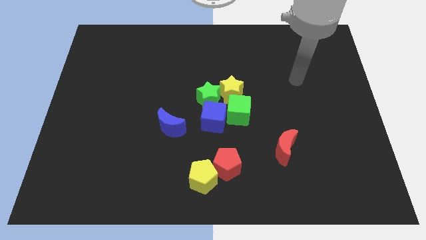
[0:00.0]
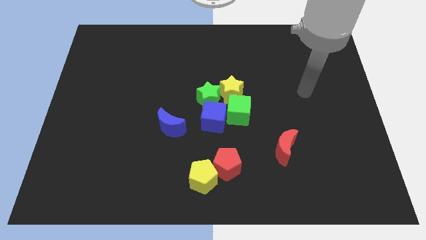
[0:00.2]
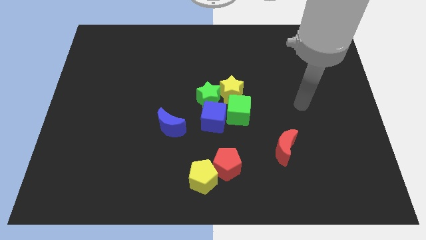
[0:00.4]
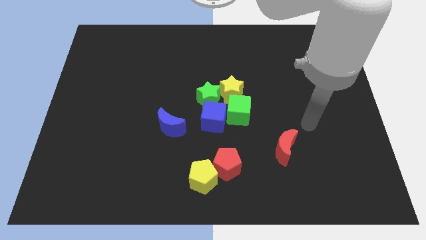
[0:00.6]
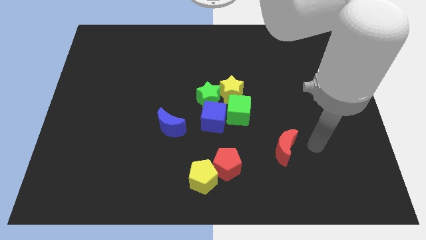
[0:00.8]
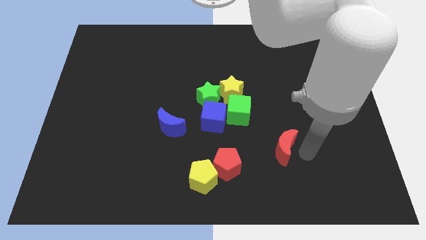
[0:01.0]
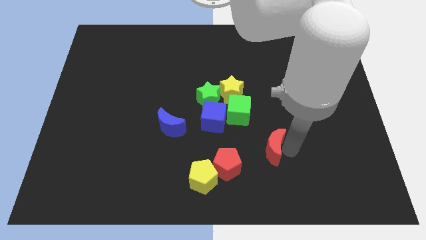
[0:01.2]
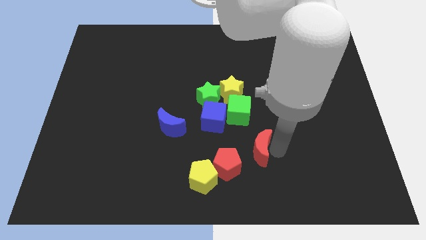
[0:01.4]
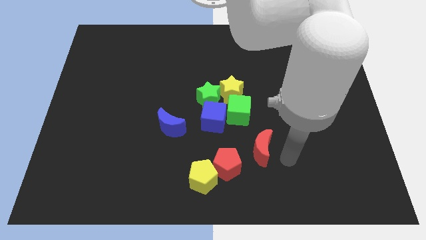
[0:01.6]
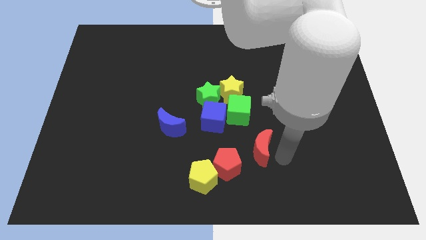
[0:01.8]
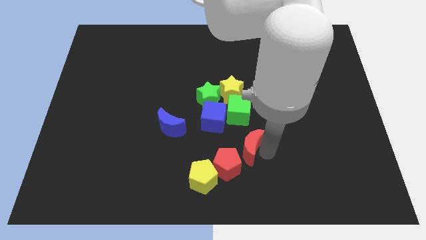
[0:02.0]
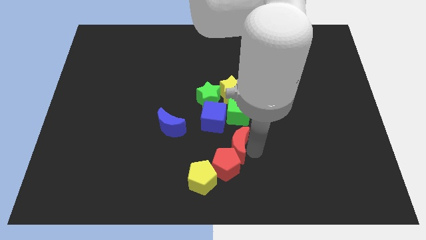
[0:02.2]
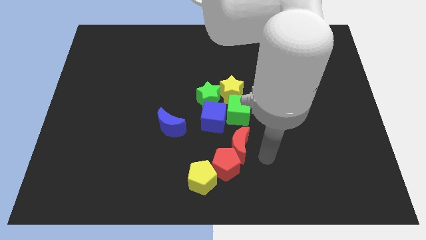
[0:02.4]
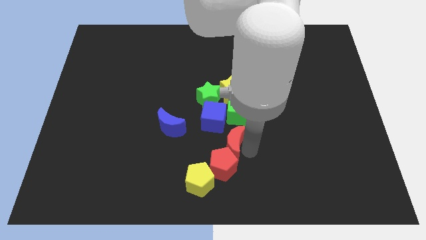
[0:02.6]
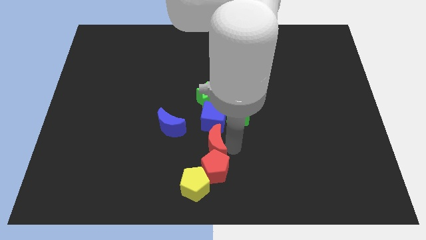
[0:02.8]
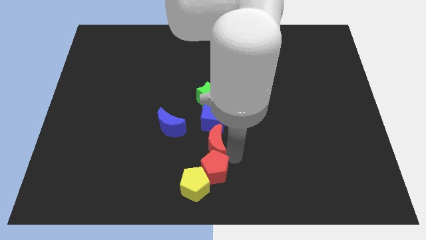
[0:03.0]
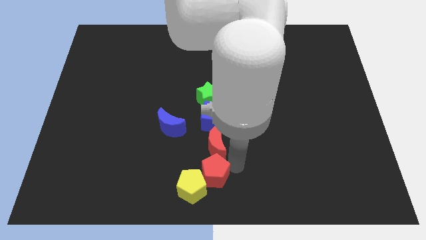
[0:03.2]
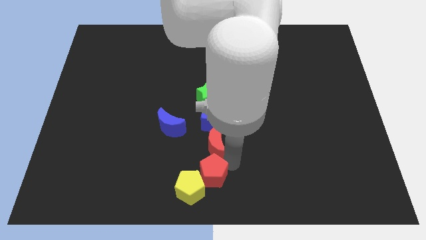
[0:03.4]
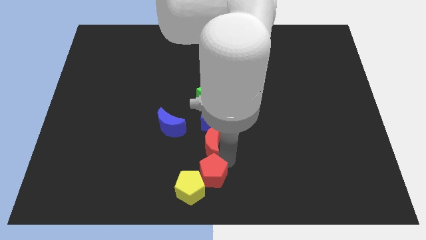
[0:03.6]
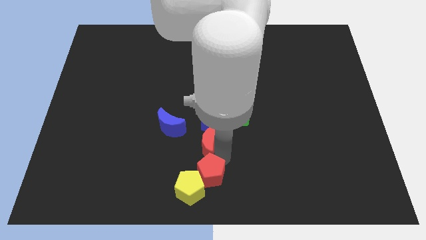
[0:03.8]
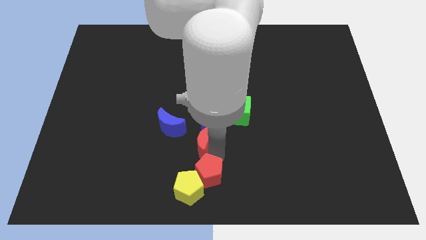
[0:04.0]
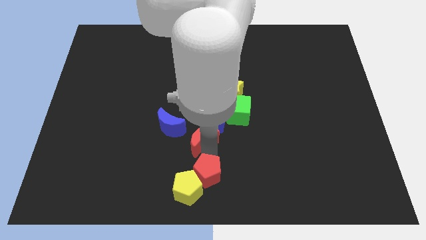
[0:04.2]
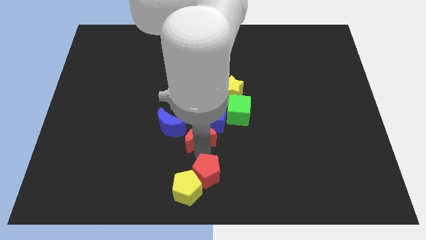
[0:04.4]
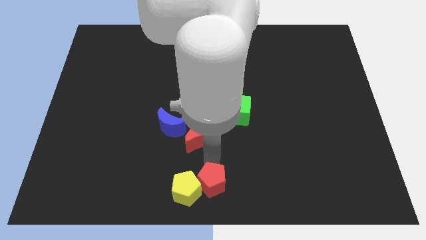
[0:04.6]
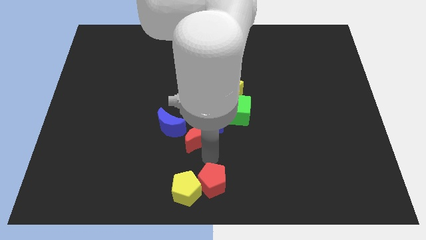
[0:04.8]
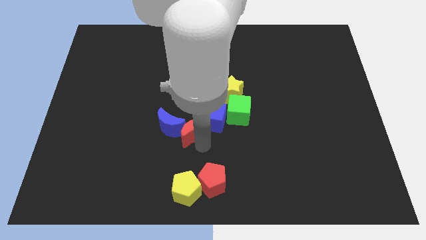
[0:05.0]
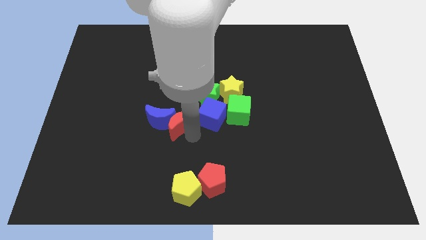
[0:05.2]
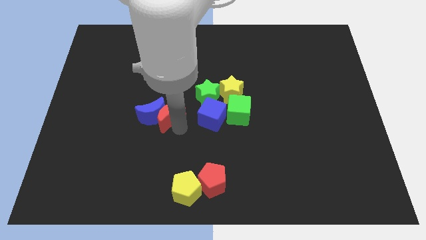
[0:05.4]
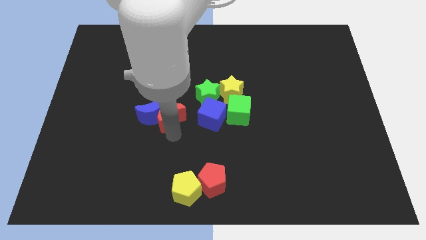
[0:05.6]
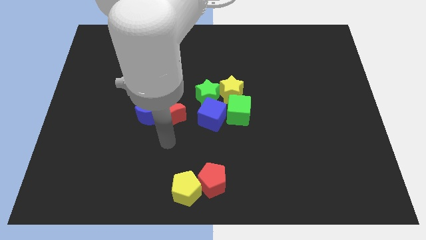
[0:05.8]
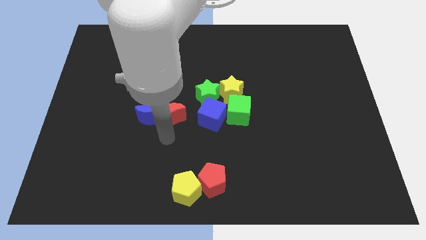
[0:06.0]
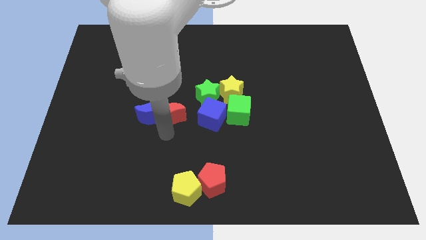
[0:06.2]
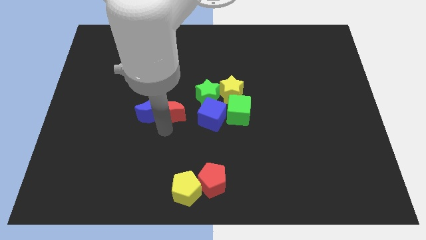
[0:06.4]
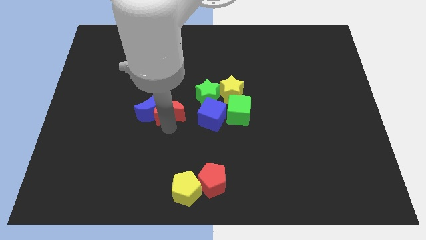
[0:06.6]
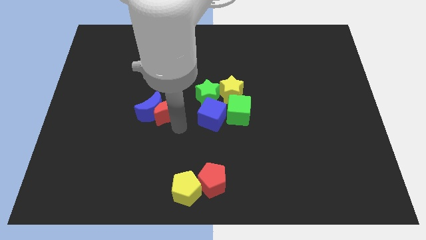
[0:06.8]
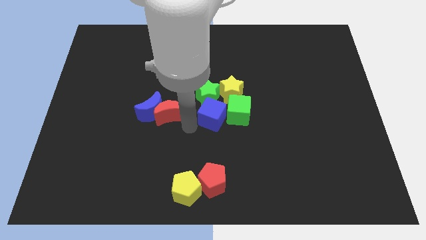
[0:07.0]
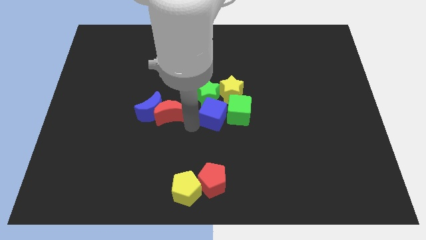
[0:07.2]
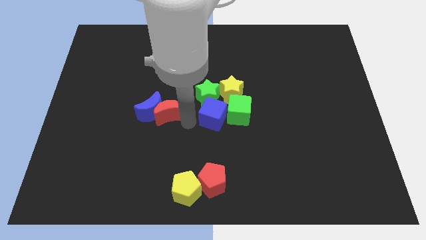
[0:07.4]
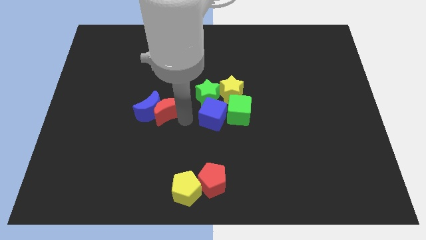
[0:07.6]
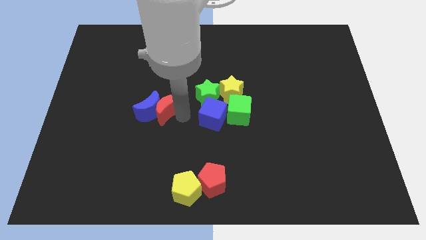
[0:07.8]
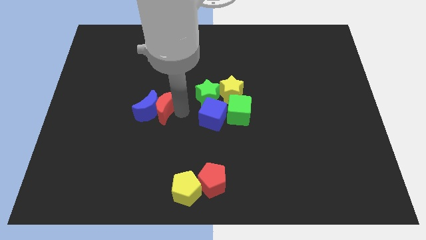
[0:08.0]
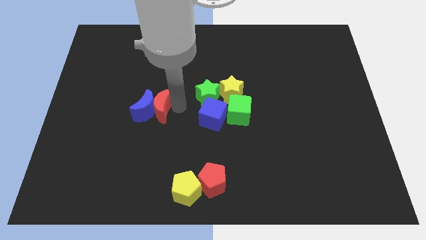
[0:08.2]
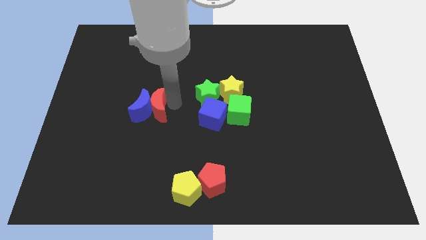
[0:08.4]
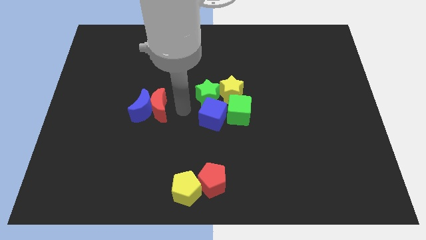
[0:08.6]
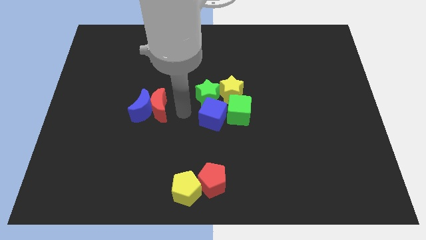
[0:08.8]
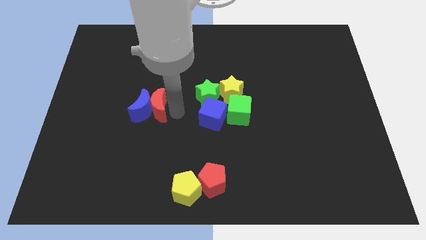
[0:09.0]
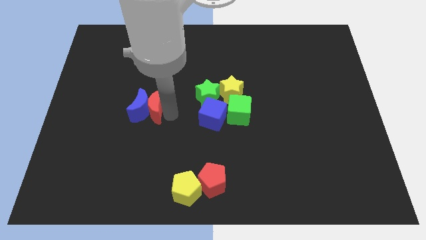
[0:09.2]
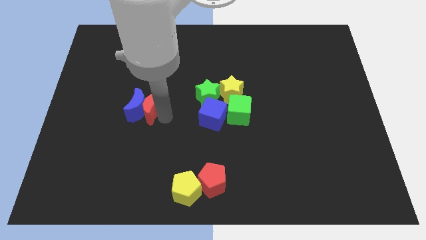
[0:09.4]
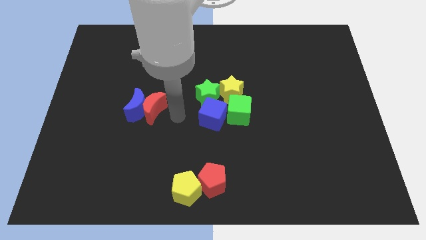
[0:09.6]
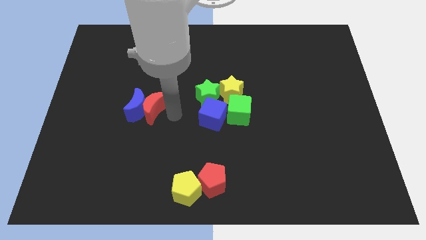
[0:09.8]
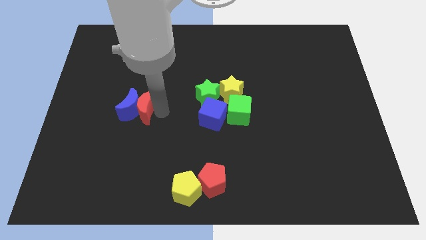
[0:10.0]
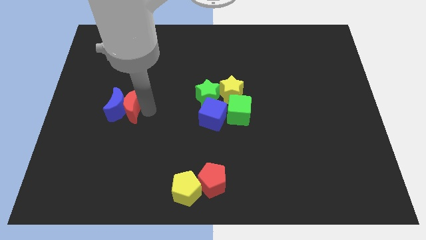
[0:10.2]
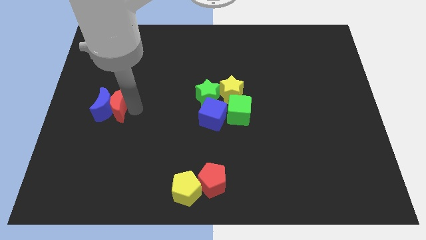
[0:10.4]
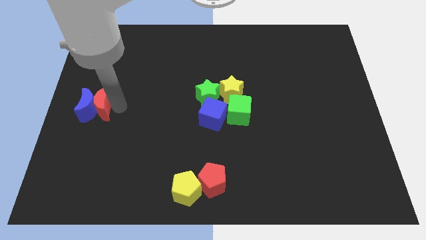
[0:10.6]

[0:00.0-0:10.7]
push the red moon to the left side

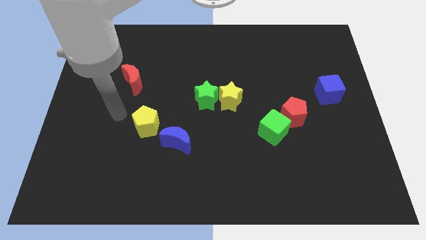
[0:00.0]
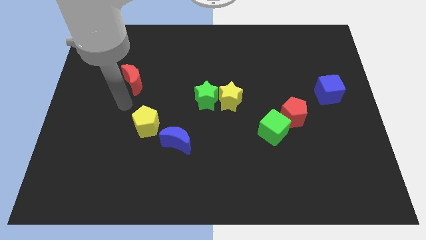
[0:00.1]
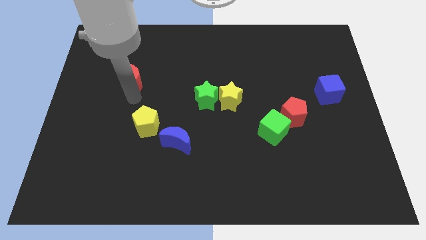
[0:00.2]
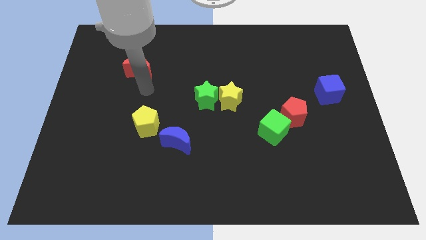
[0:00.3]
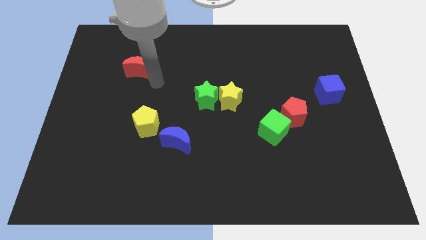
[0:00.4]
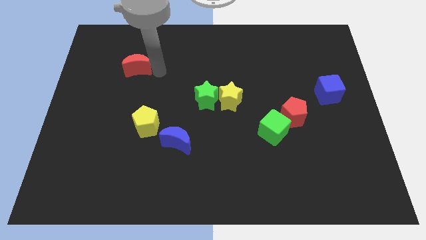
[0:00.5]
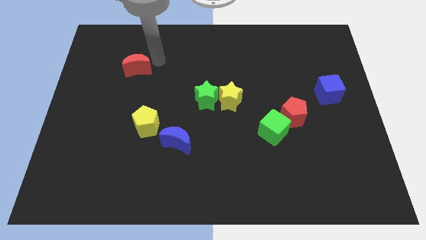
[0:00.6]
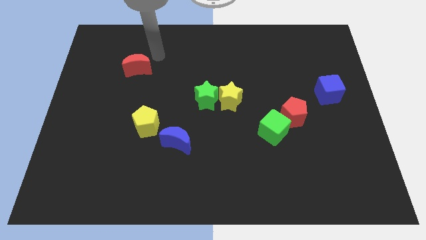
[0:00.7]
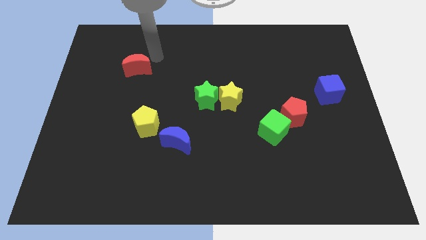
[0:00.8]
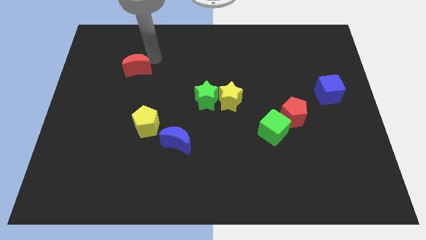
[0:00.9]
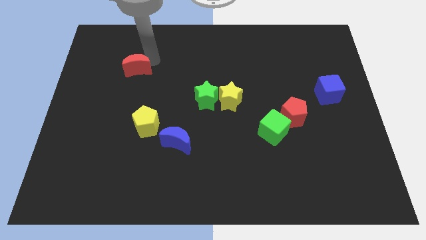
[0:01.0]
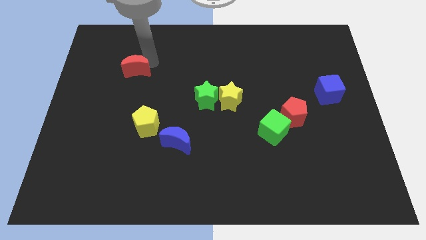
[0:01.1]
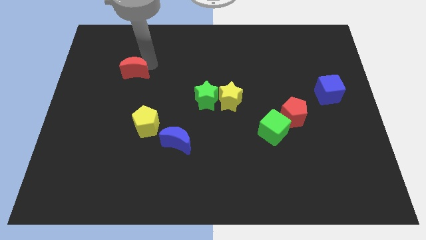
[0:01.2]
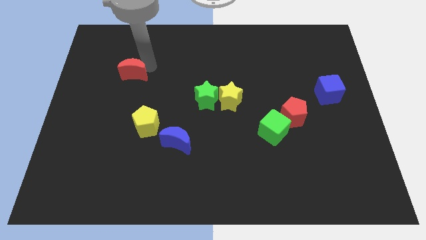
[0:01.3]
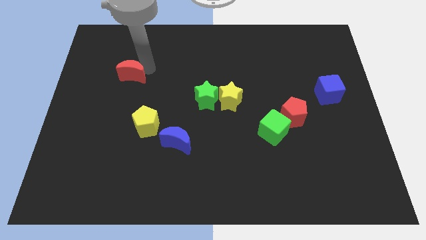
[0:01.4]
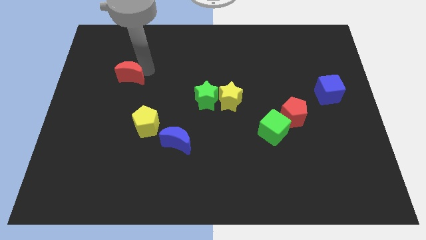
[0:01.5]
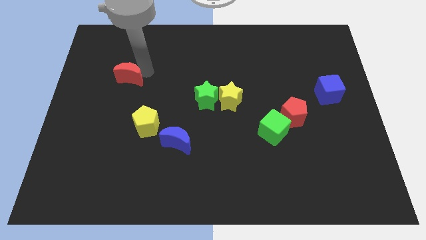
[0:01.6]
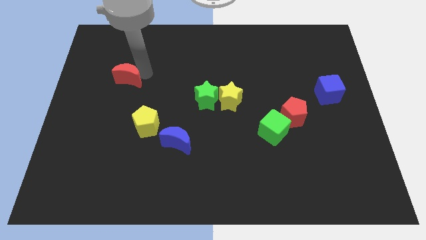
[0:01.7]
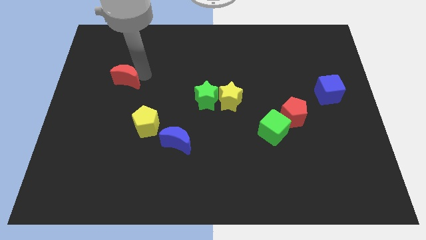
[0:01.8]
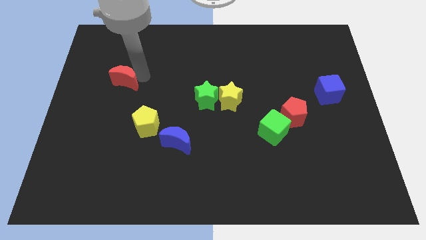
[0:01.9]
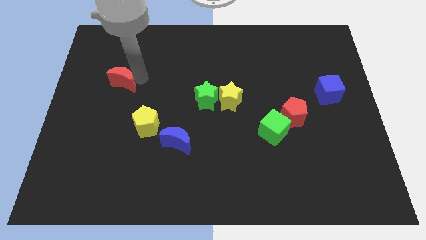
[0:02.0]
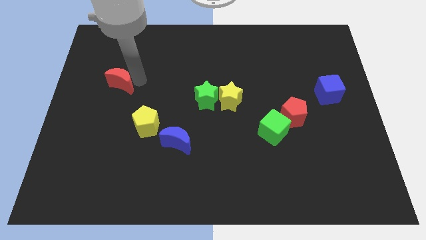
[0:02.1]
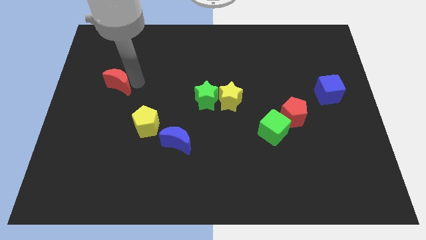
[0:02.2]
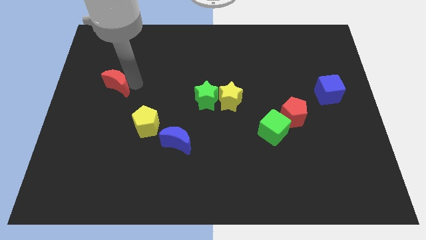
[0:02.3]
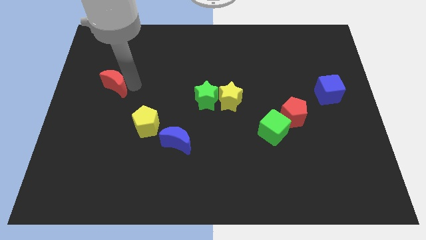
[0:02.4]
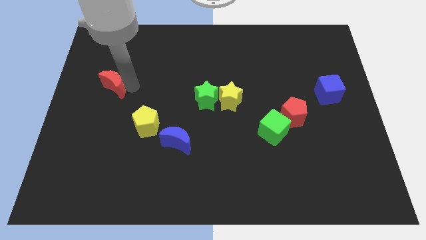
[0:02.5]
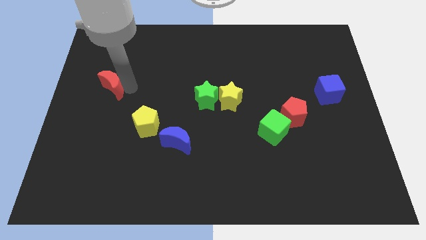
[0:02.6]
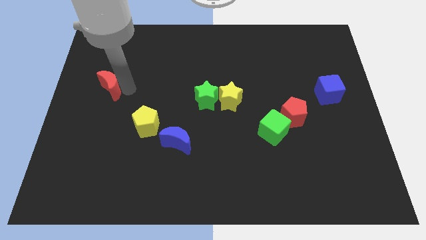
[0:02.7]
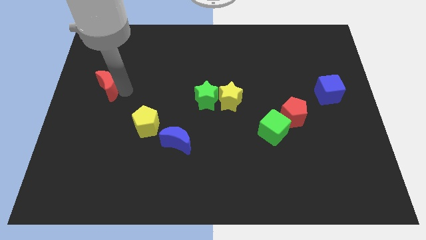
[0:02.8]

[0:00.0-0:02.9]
push the red moon to the left side of the board
